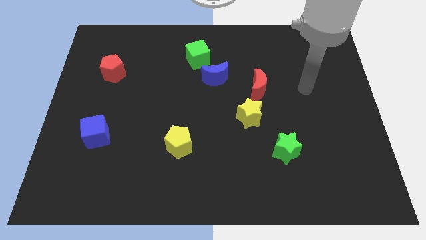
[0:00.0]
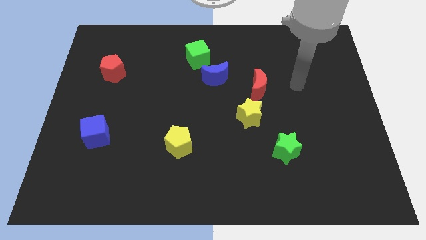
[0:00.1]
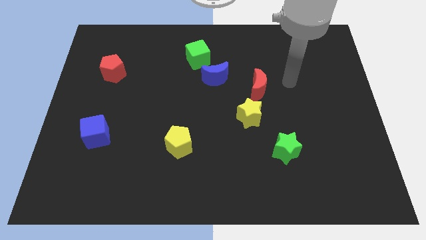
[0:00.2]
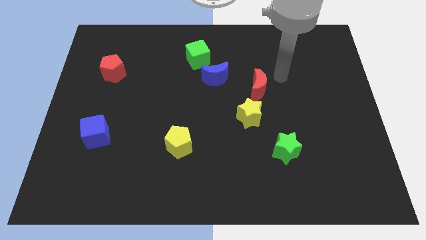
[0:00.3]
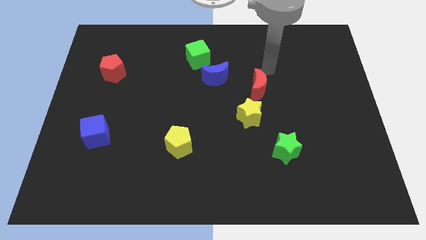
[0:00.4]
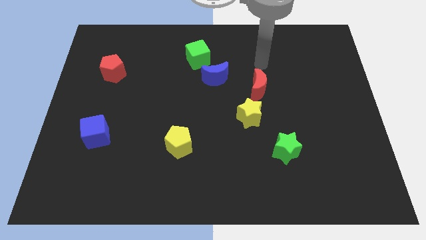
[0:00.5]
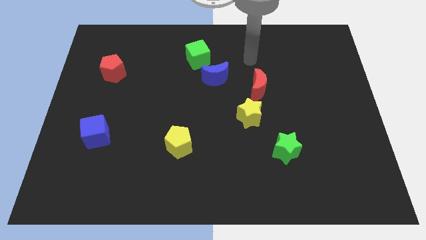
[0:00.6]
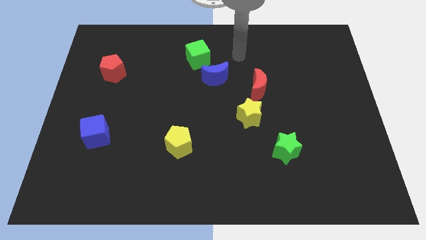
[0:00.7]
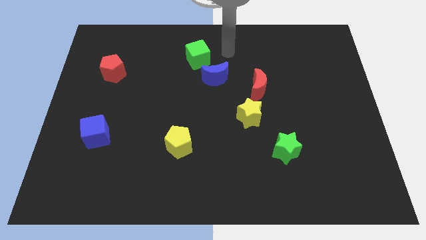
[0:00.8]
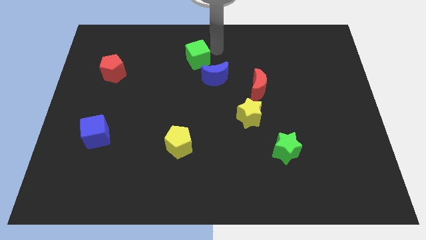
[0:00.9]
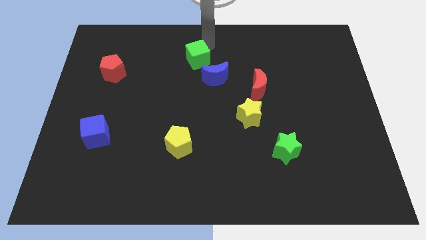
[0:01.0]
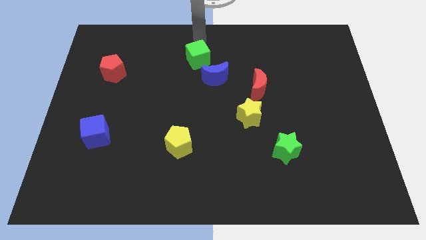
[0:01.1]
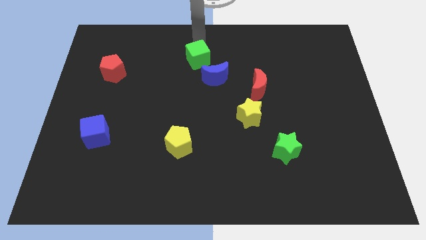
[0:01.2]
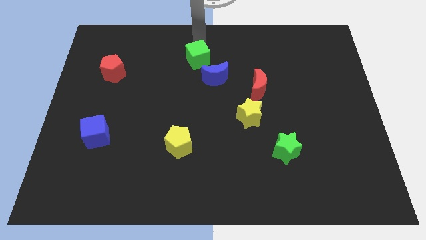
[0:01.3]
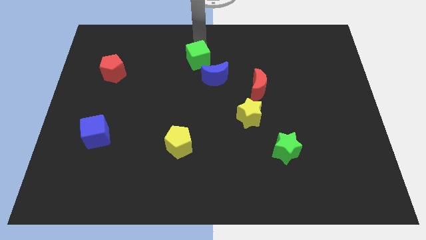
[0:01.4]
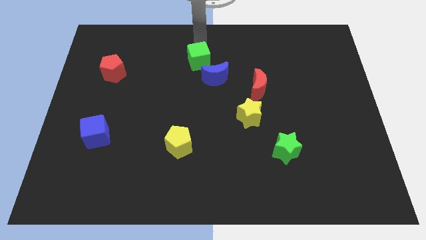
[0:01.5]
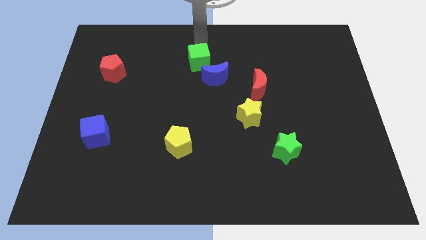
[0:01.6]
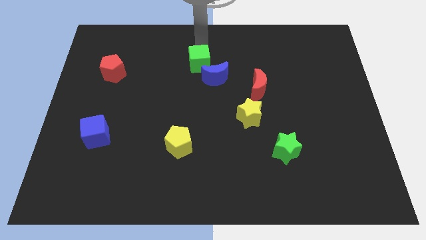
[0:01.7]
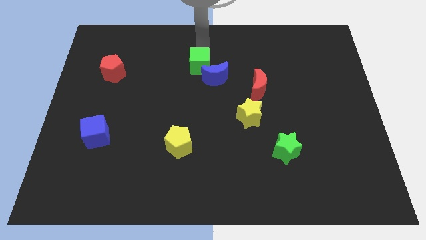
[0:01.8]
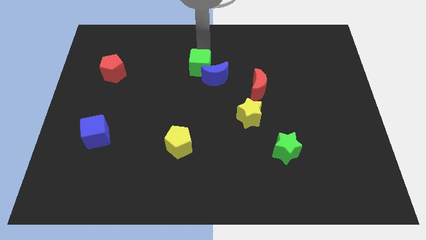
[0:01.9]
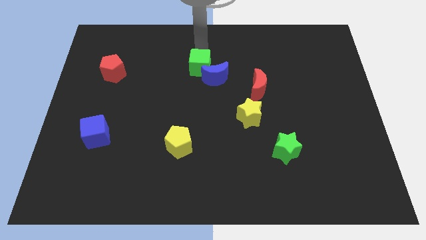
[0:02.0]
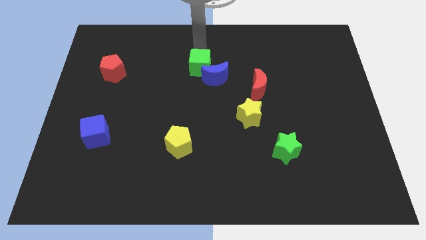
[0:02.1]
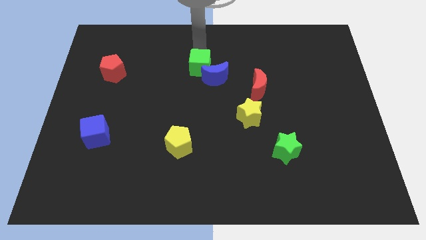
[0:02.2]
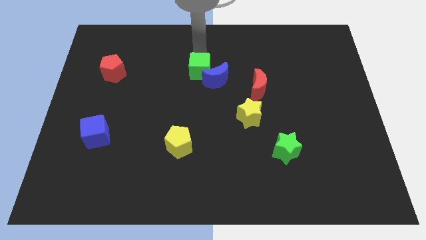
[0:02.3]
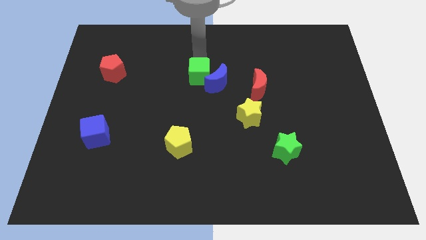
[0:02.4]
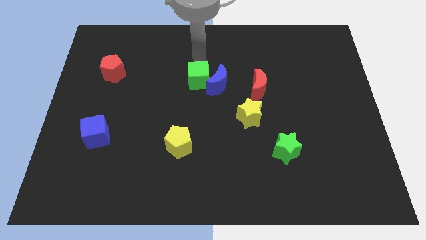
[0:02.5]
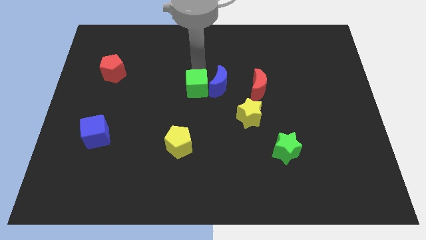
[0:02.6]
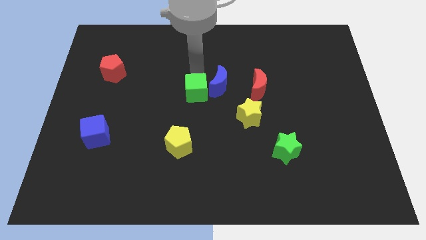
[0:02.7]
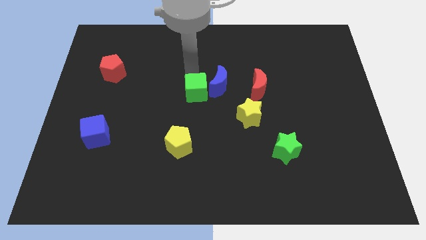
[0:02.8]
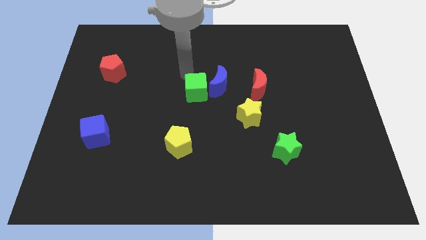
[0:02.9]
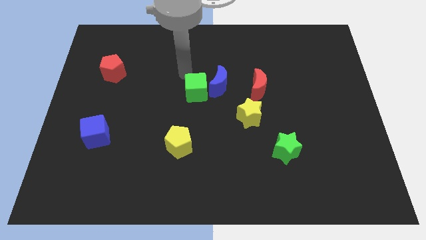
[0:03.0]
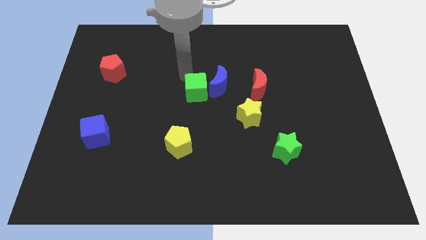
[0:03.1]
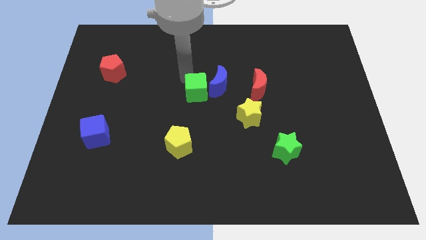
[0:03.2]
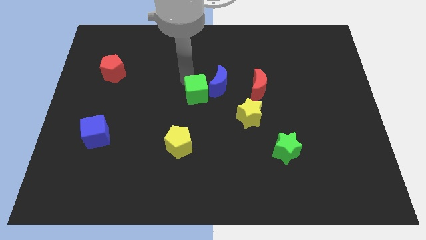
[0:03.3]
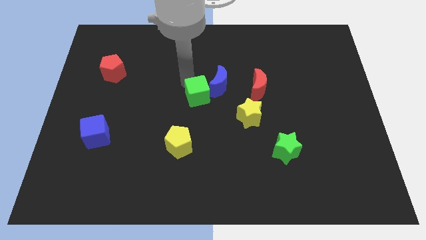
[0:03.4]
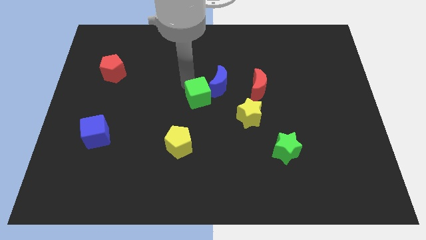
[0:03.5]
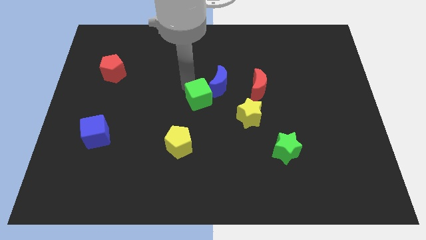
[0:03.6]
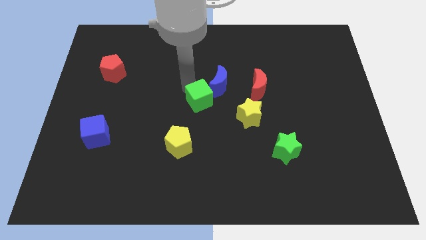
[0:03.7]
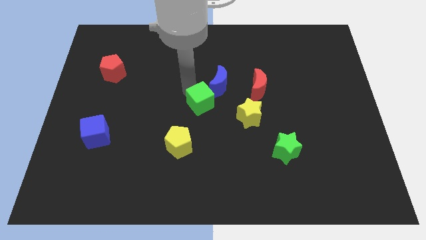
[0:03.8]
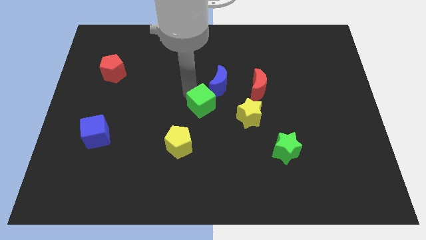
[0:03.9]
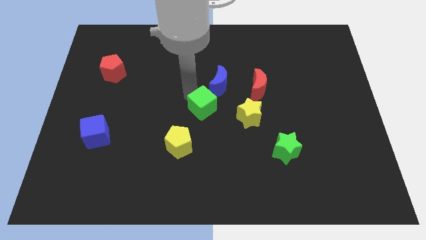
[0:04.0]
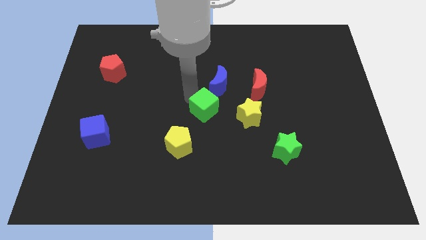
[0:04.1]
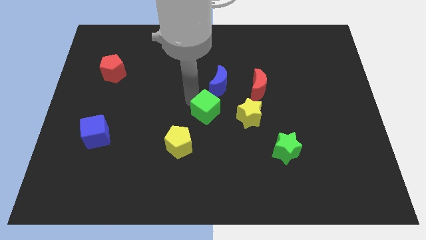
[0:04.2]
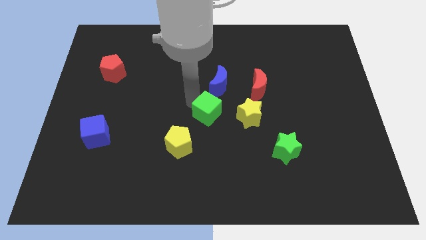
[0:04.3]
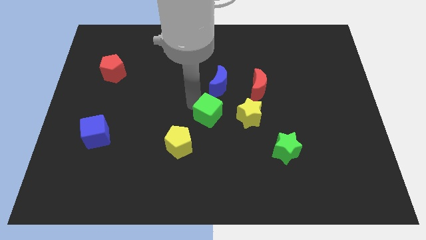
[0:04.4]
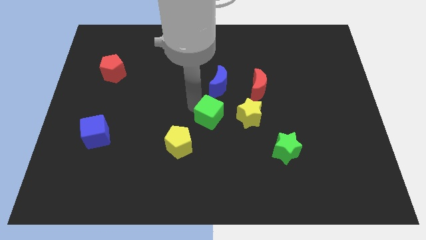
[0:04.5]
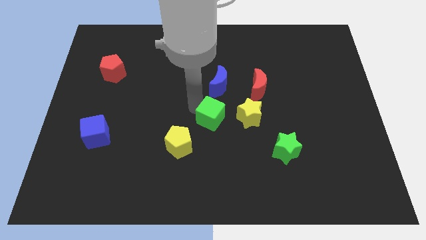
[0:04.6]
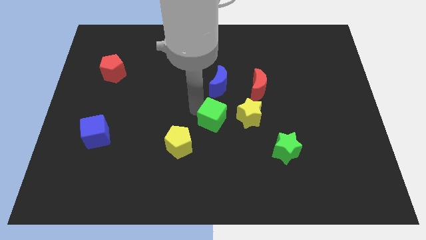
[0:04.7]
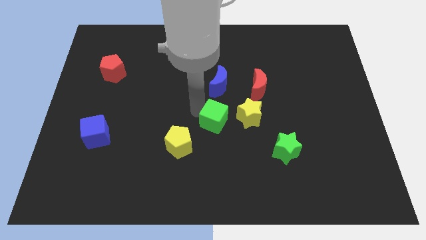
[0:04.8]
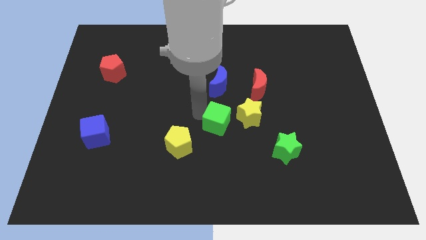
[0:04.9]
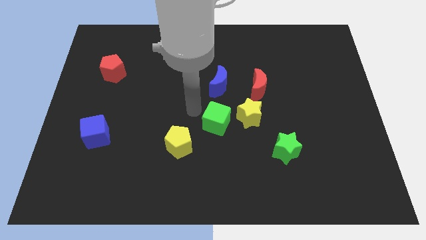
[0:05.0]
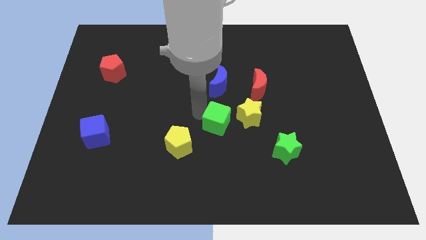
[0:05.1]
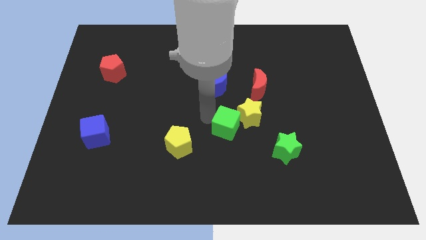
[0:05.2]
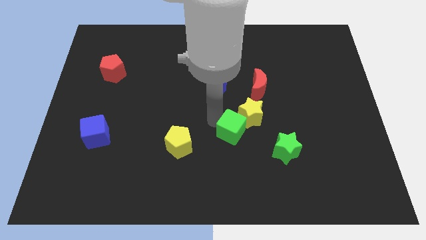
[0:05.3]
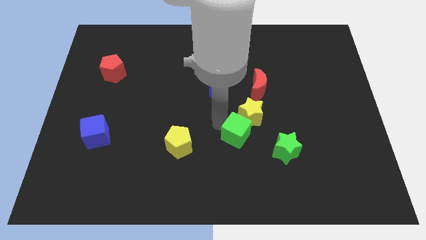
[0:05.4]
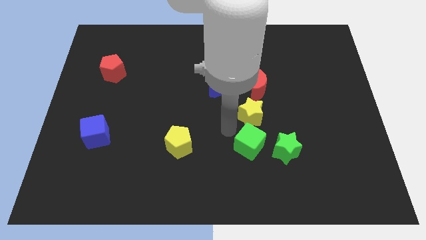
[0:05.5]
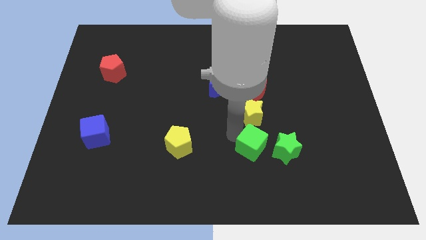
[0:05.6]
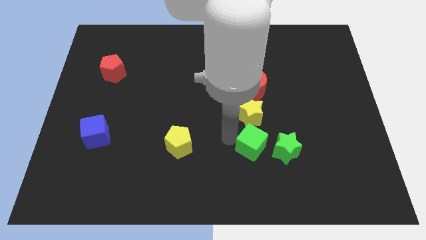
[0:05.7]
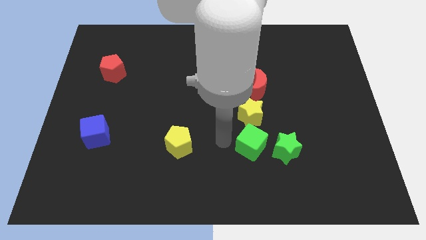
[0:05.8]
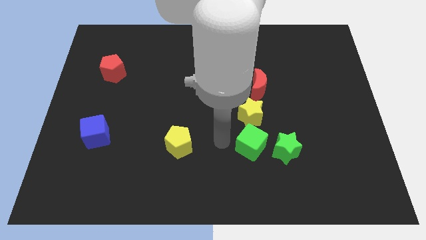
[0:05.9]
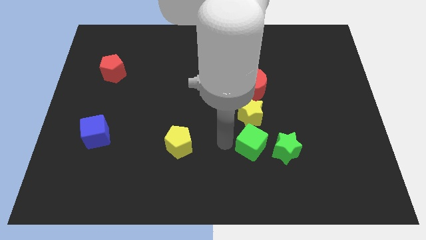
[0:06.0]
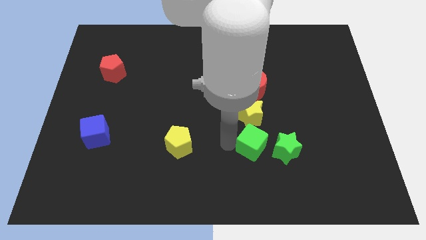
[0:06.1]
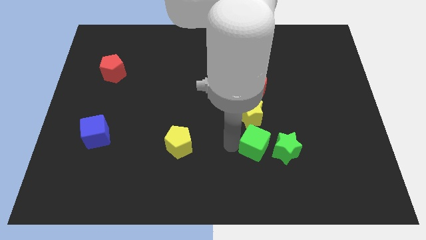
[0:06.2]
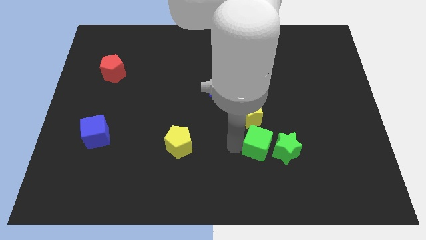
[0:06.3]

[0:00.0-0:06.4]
push the green cube towards the green star

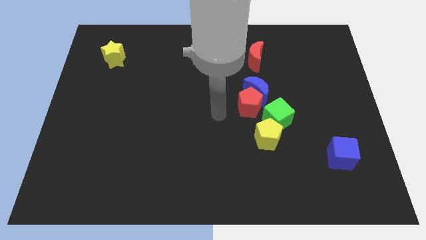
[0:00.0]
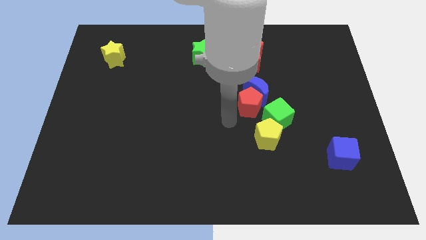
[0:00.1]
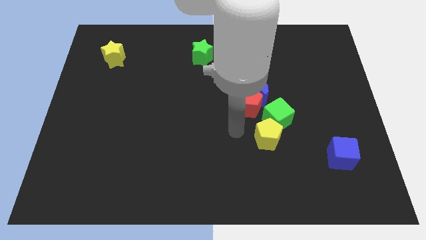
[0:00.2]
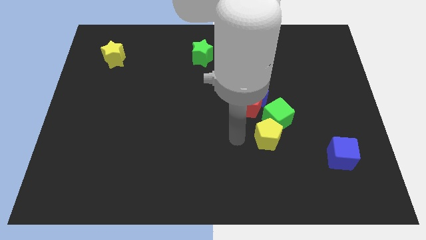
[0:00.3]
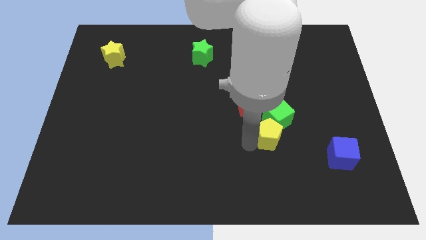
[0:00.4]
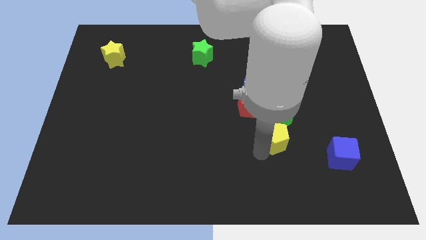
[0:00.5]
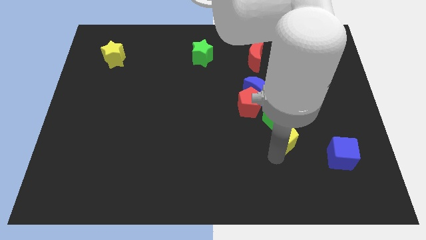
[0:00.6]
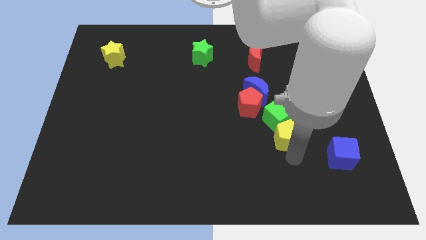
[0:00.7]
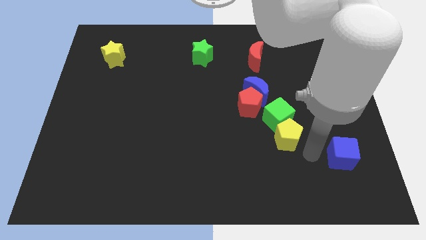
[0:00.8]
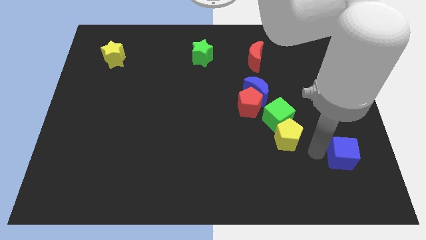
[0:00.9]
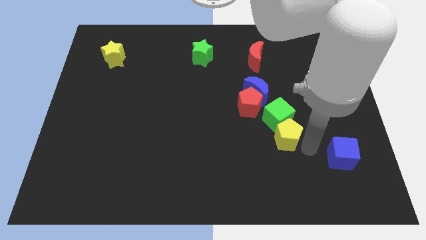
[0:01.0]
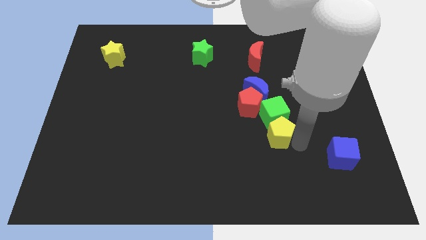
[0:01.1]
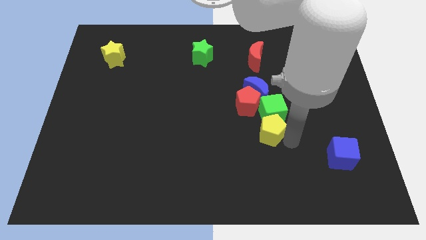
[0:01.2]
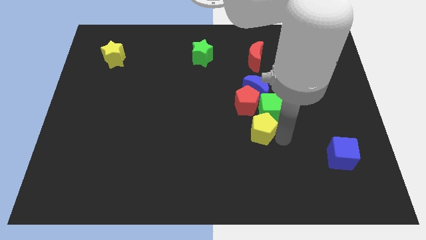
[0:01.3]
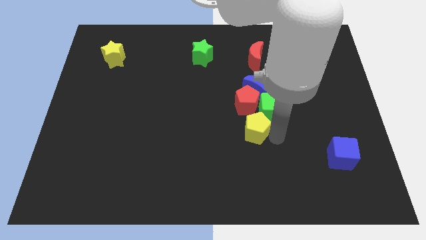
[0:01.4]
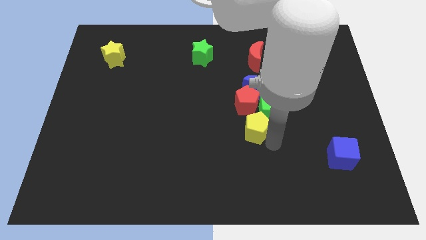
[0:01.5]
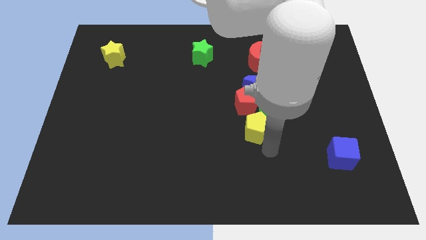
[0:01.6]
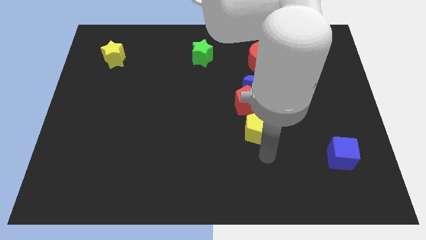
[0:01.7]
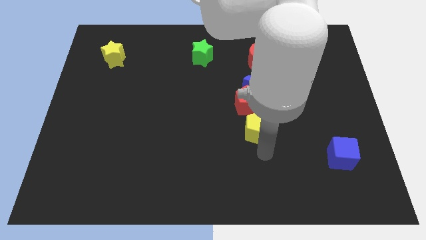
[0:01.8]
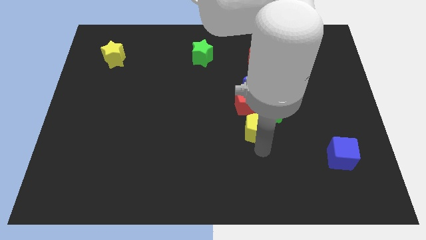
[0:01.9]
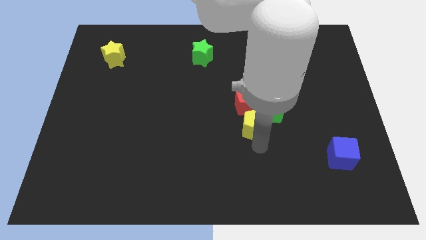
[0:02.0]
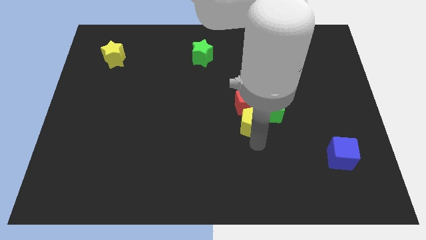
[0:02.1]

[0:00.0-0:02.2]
move the yellow pentagon next to the red pentagon
